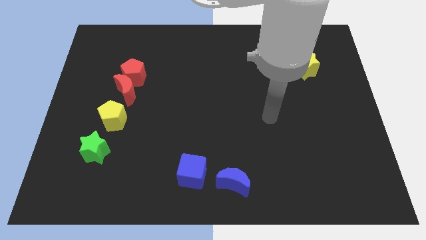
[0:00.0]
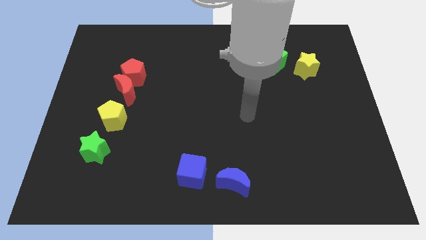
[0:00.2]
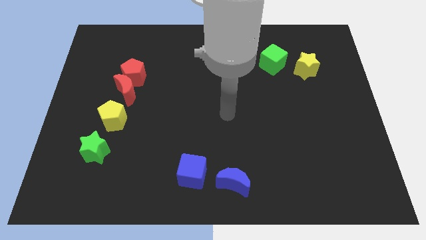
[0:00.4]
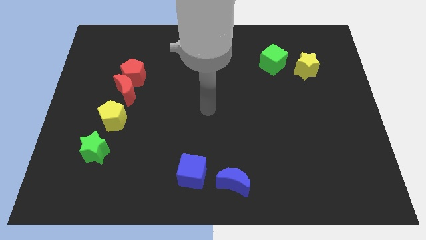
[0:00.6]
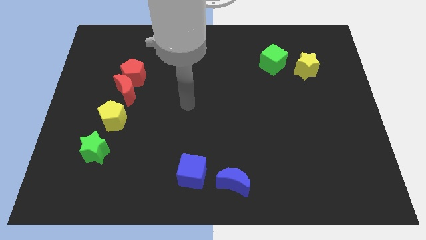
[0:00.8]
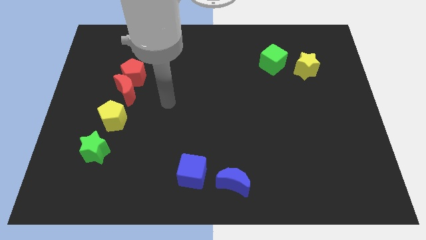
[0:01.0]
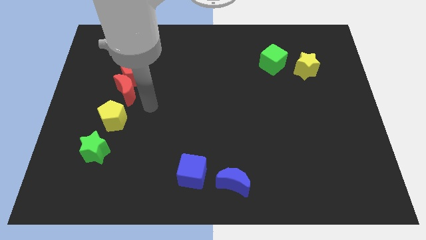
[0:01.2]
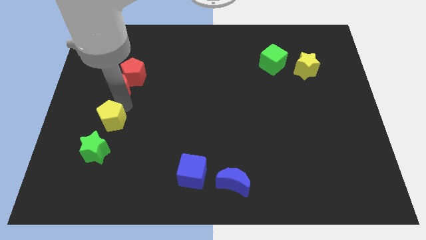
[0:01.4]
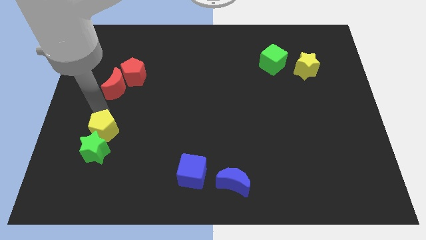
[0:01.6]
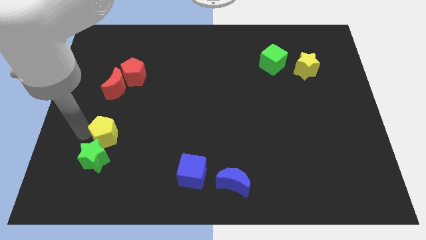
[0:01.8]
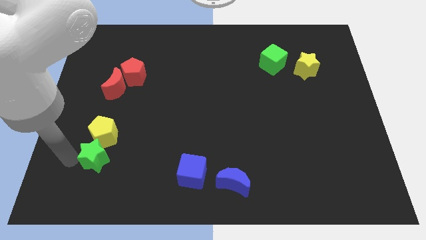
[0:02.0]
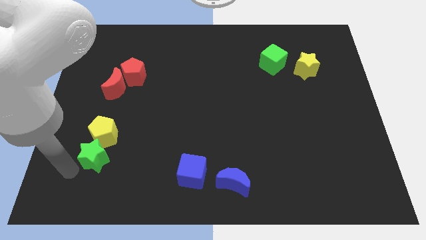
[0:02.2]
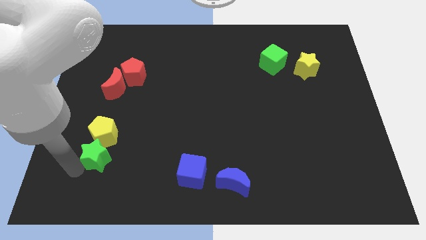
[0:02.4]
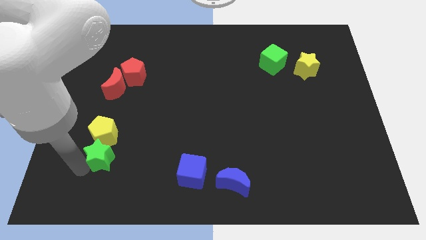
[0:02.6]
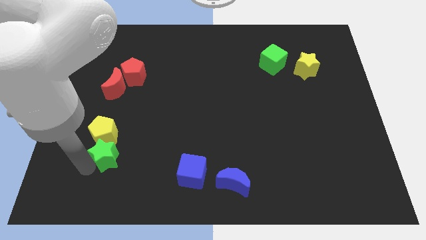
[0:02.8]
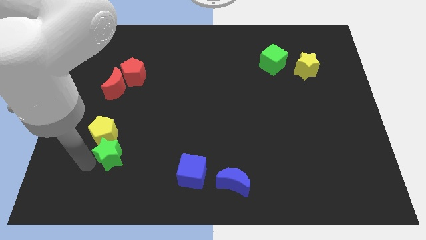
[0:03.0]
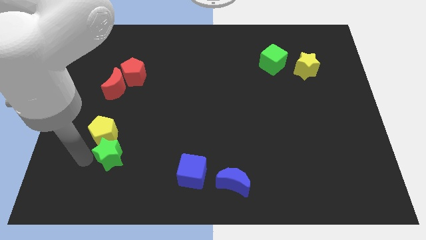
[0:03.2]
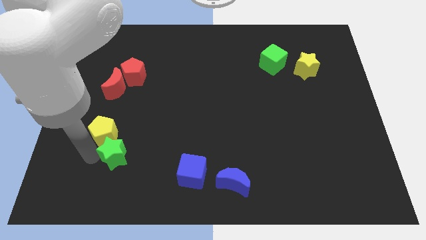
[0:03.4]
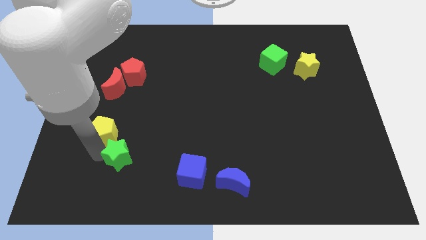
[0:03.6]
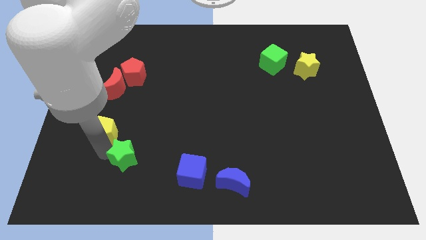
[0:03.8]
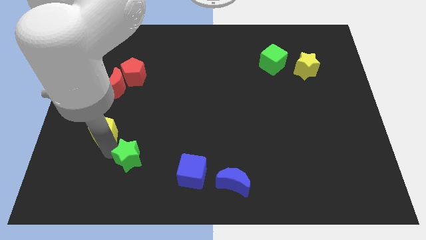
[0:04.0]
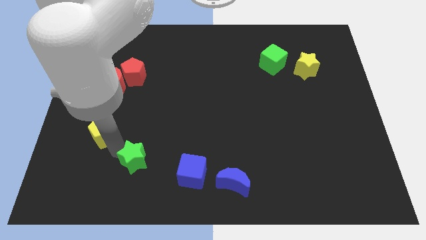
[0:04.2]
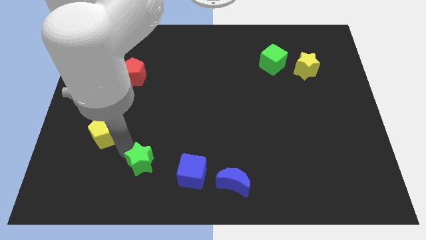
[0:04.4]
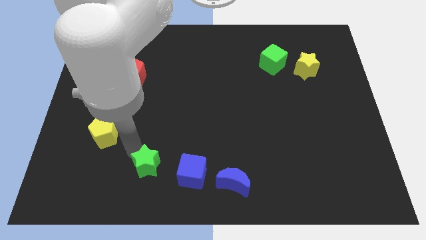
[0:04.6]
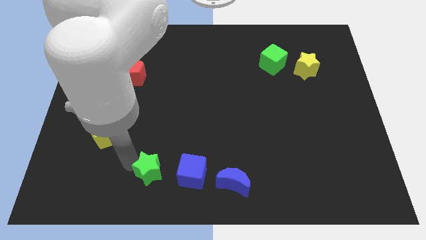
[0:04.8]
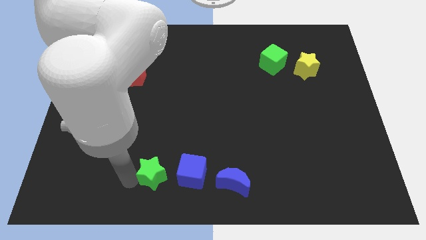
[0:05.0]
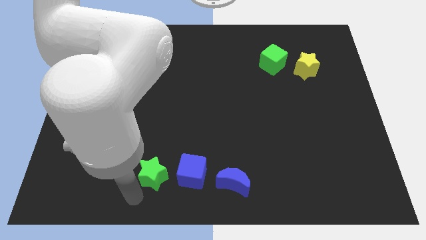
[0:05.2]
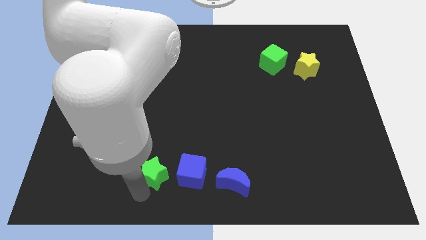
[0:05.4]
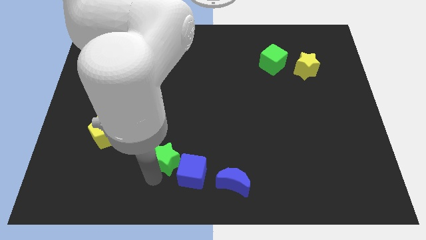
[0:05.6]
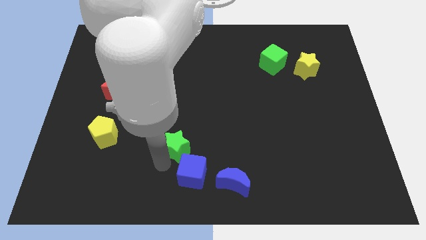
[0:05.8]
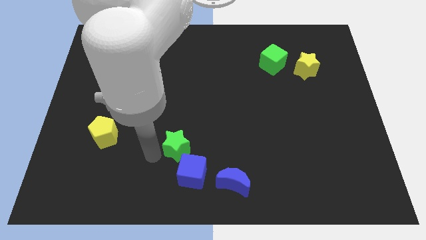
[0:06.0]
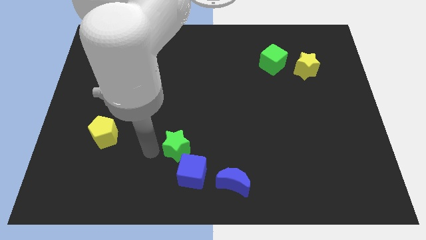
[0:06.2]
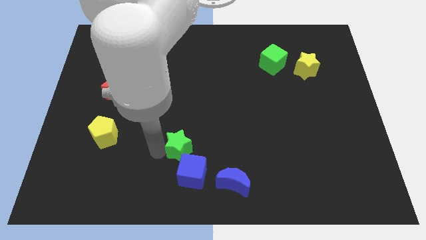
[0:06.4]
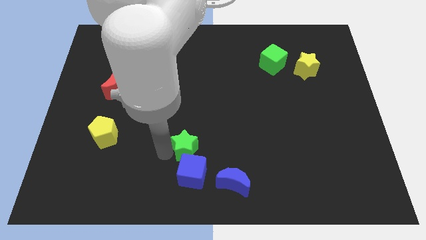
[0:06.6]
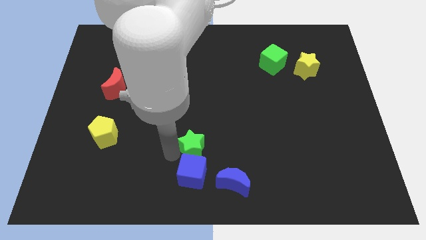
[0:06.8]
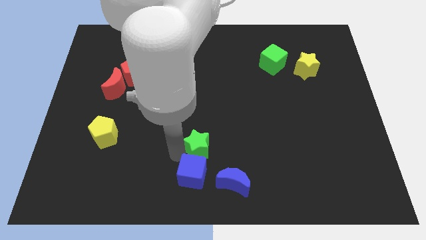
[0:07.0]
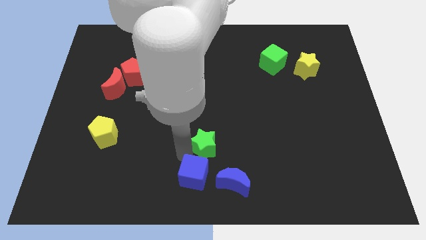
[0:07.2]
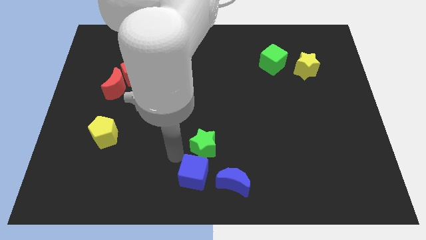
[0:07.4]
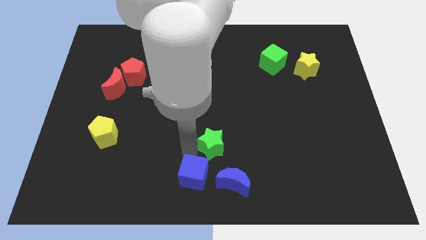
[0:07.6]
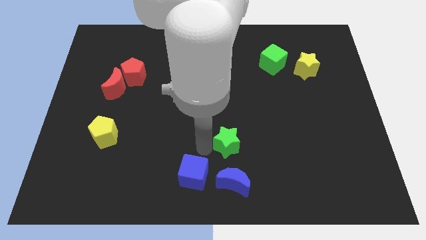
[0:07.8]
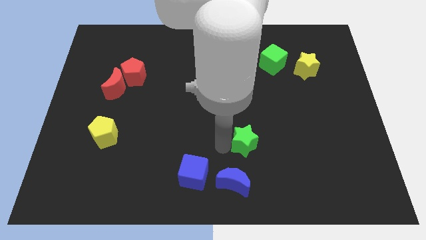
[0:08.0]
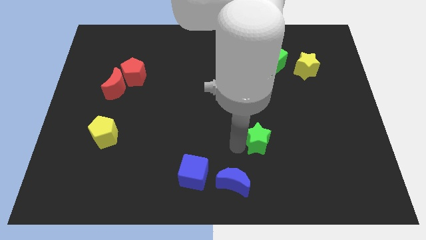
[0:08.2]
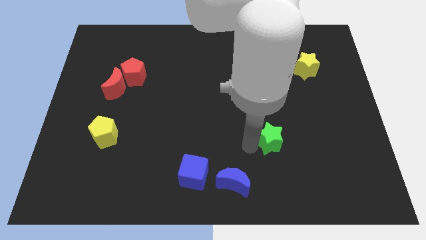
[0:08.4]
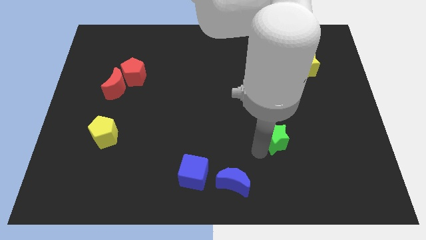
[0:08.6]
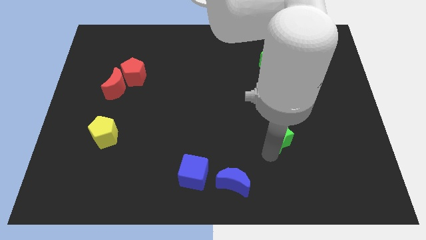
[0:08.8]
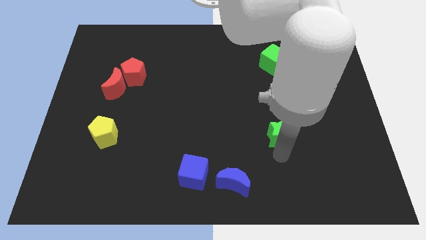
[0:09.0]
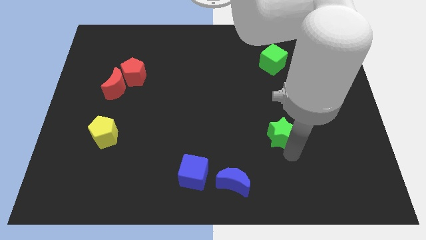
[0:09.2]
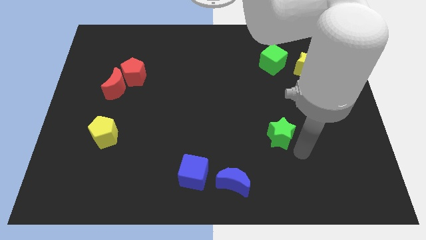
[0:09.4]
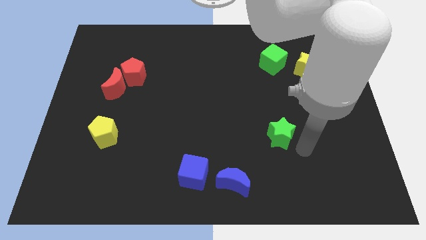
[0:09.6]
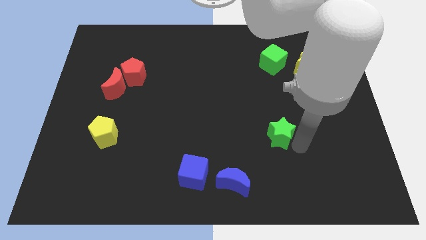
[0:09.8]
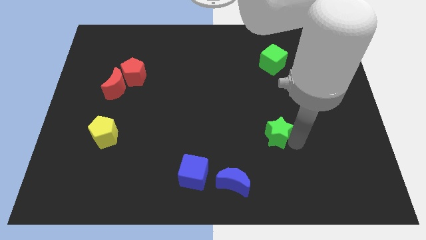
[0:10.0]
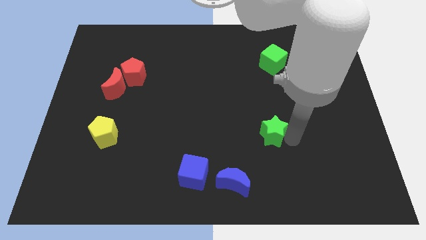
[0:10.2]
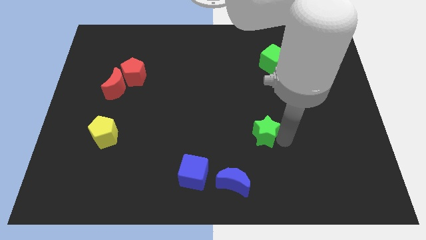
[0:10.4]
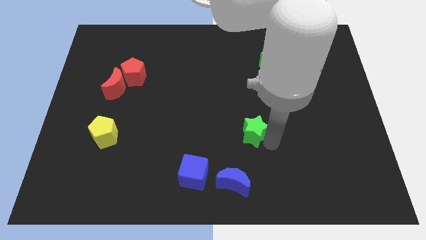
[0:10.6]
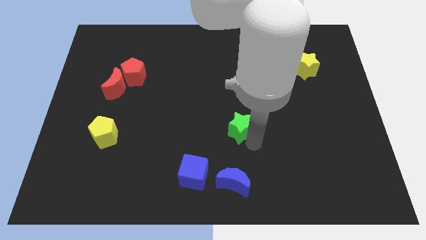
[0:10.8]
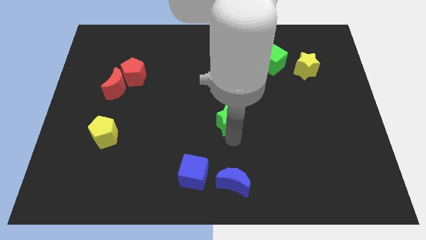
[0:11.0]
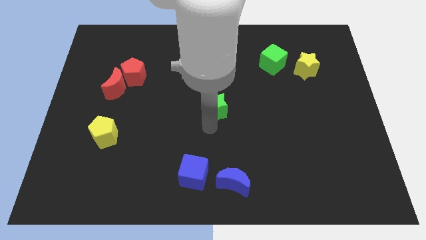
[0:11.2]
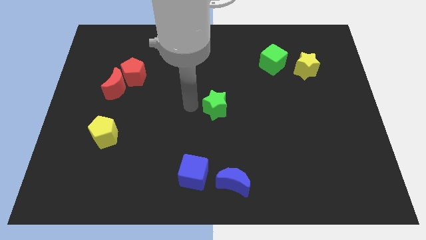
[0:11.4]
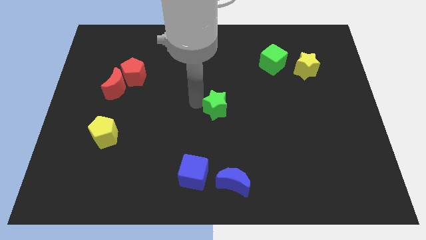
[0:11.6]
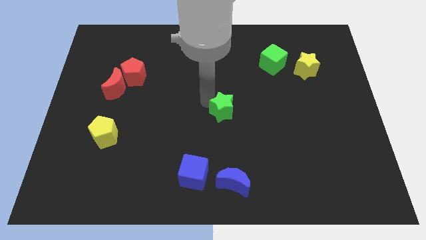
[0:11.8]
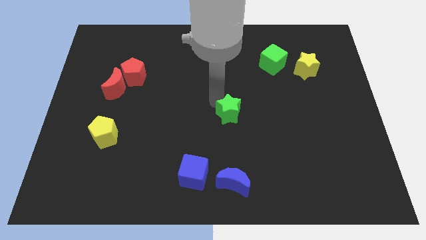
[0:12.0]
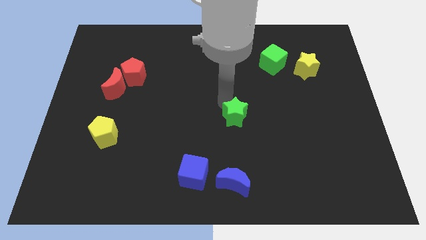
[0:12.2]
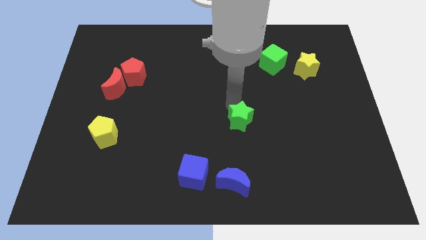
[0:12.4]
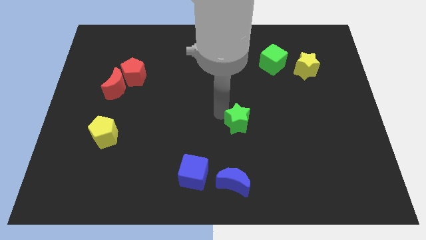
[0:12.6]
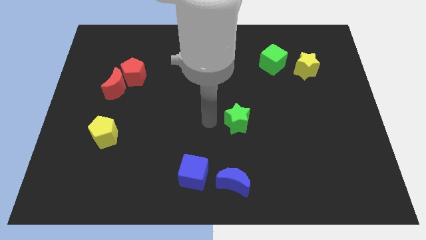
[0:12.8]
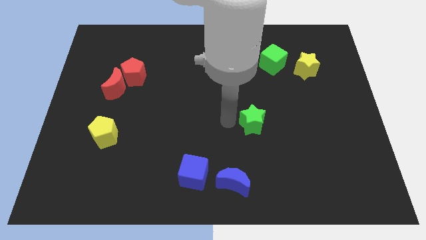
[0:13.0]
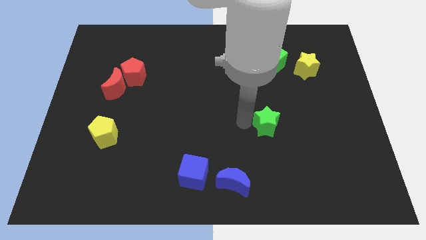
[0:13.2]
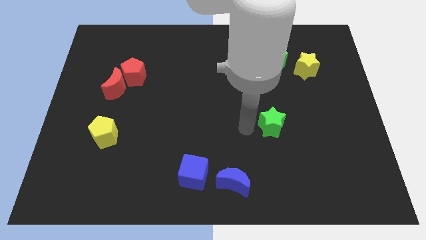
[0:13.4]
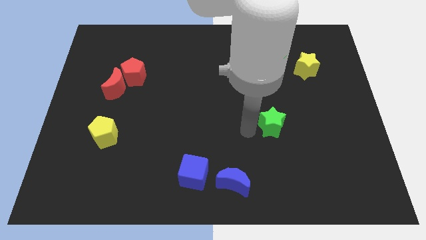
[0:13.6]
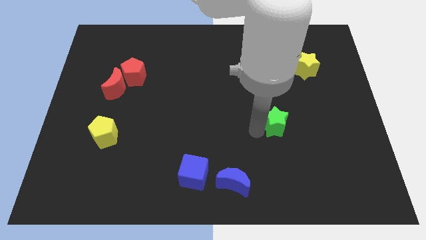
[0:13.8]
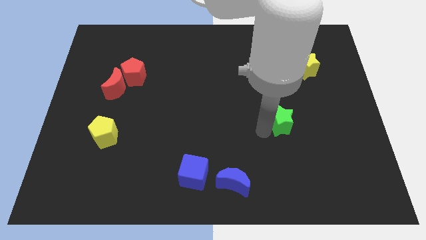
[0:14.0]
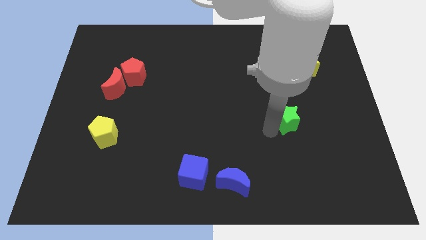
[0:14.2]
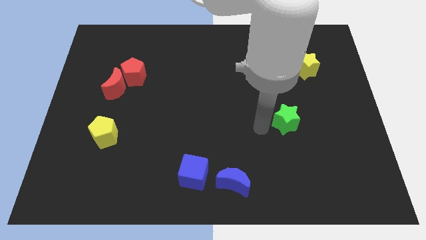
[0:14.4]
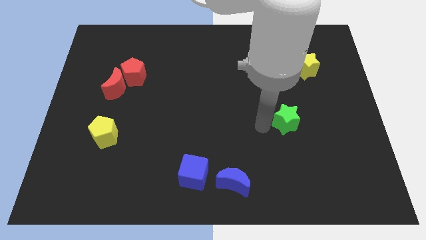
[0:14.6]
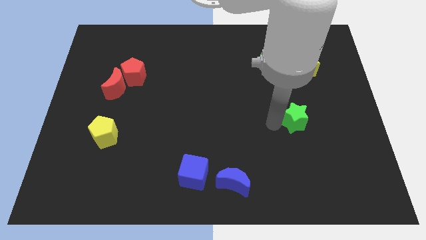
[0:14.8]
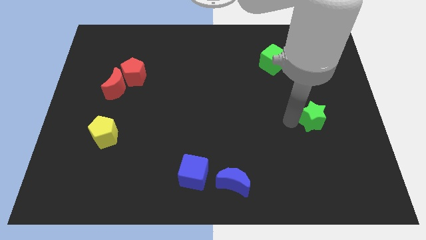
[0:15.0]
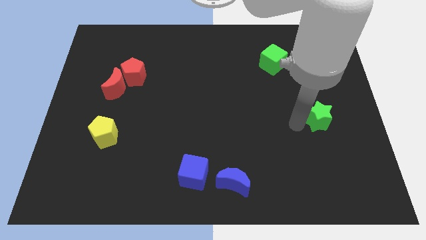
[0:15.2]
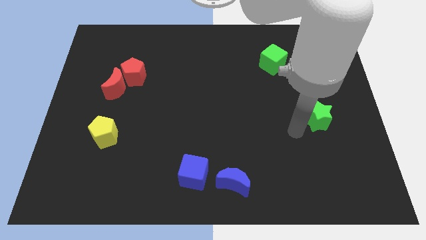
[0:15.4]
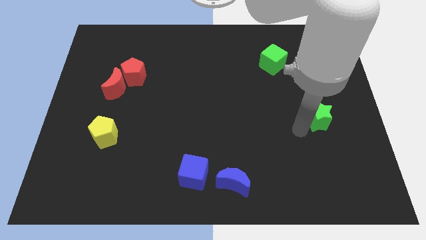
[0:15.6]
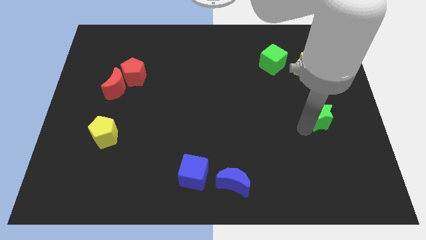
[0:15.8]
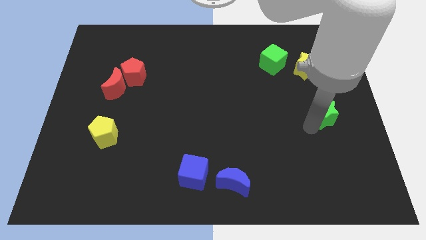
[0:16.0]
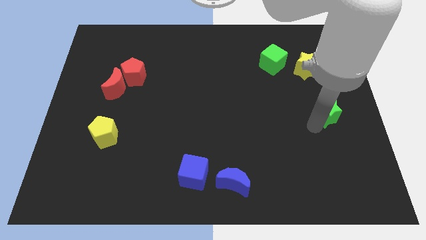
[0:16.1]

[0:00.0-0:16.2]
slide the green star to the right side
